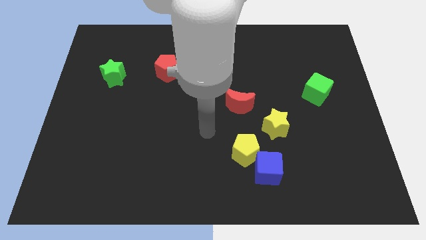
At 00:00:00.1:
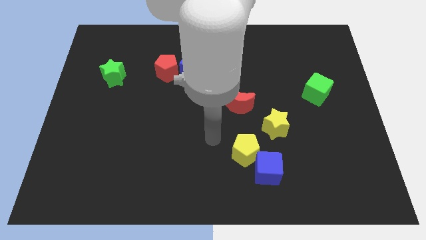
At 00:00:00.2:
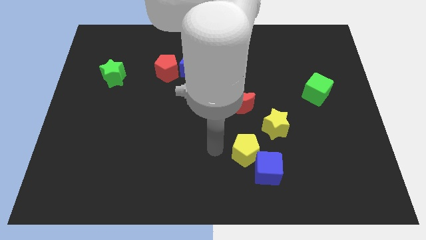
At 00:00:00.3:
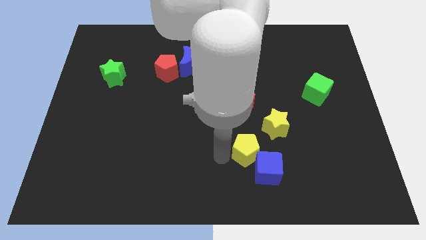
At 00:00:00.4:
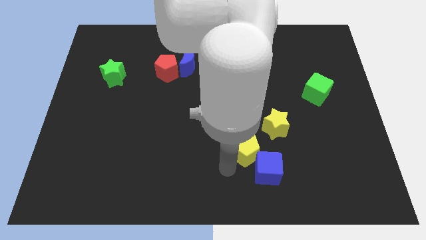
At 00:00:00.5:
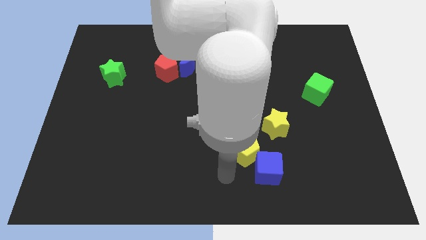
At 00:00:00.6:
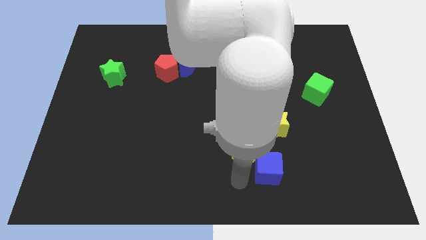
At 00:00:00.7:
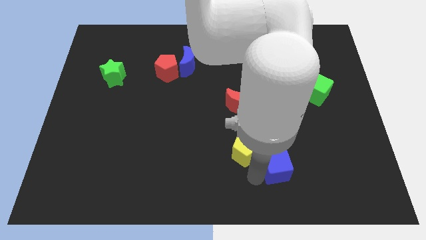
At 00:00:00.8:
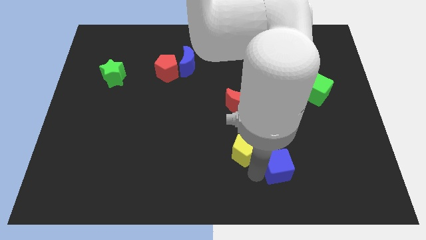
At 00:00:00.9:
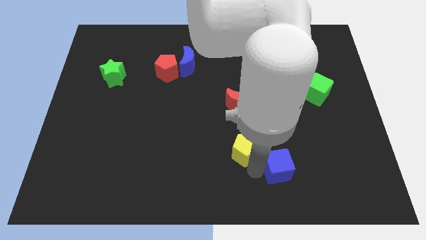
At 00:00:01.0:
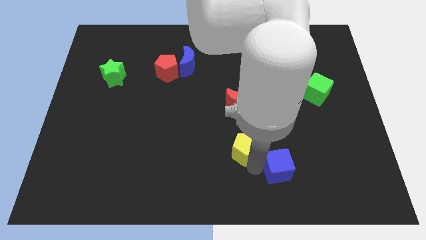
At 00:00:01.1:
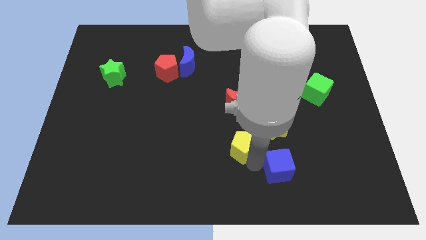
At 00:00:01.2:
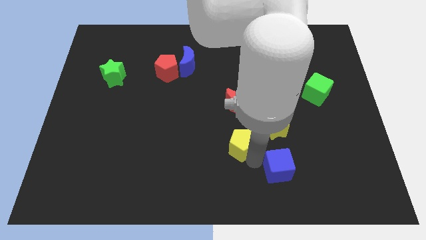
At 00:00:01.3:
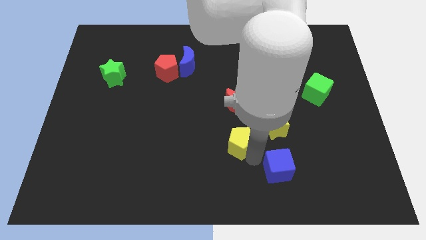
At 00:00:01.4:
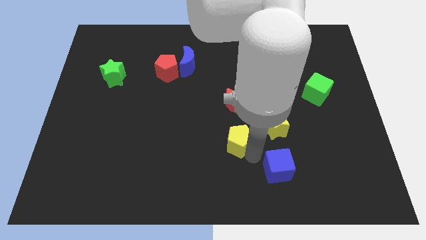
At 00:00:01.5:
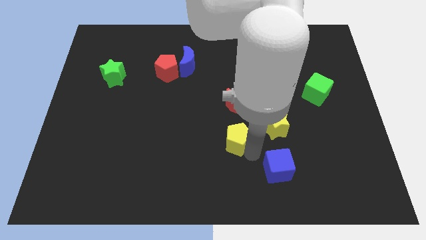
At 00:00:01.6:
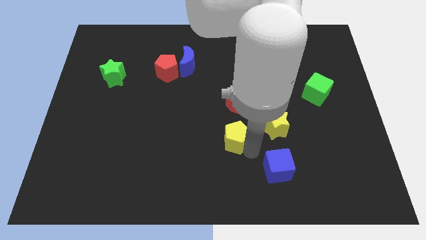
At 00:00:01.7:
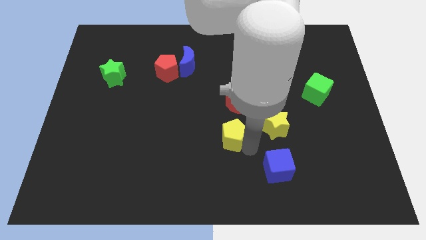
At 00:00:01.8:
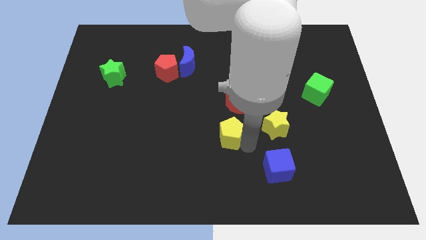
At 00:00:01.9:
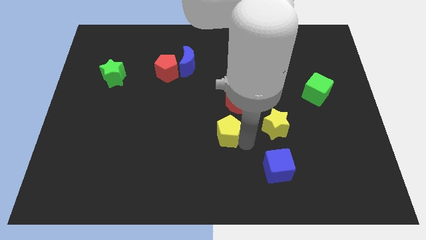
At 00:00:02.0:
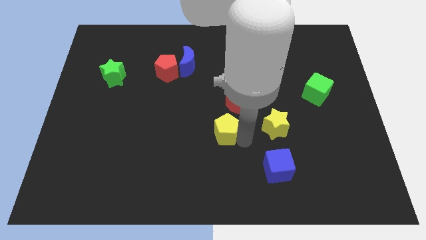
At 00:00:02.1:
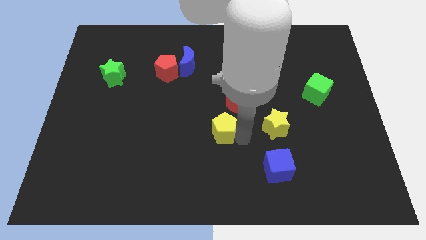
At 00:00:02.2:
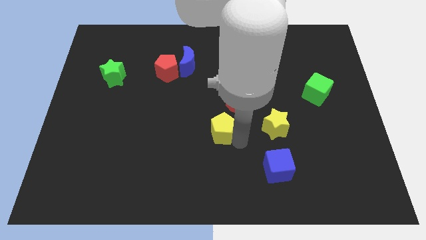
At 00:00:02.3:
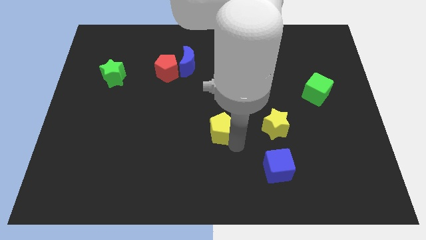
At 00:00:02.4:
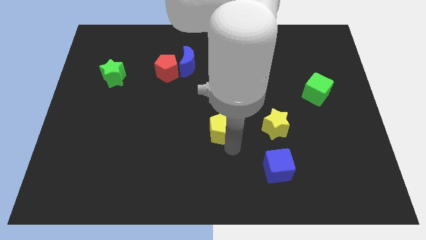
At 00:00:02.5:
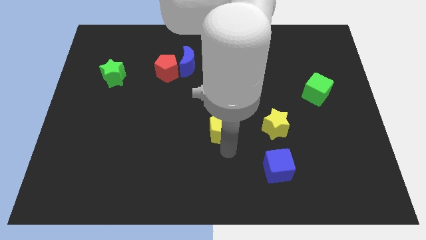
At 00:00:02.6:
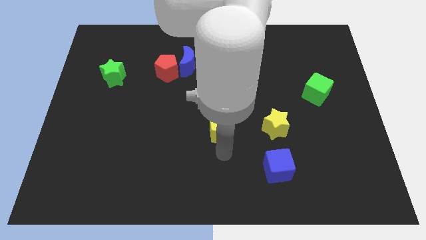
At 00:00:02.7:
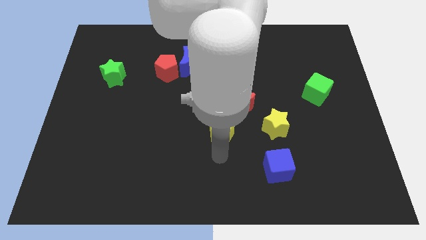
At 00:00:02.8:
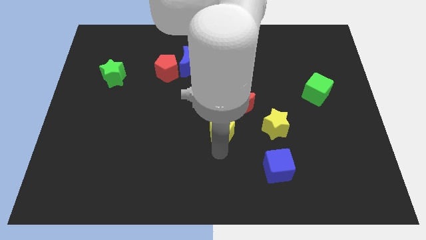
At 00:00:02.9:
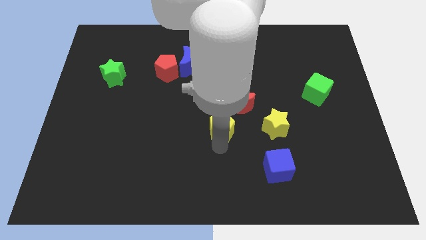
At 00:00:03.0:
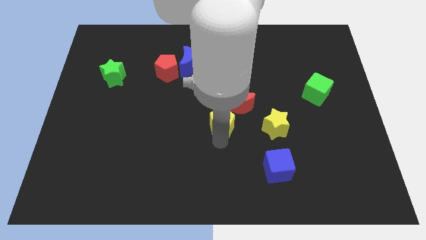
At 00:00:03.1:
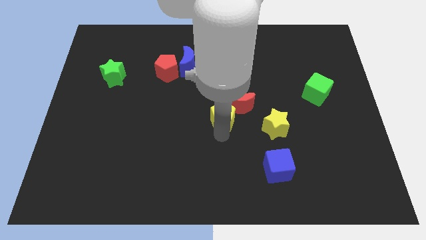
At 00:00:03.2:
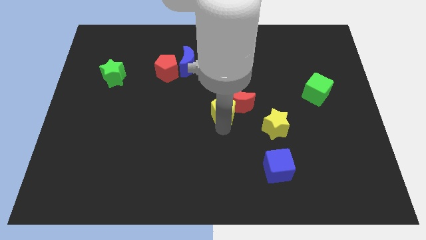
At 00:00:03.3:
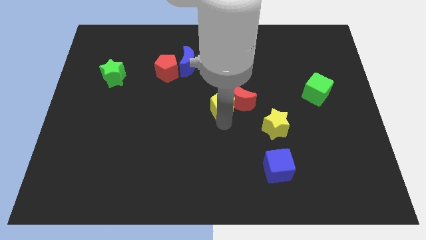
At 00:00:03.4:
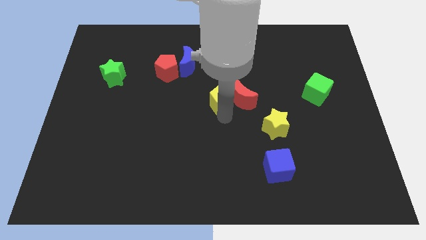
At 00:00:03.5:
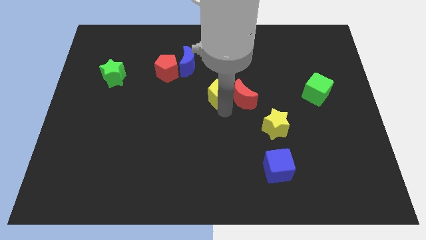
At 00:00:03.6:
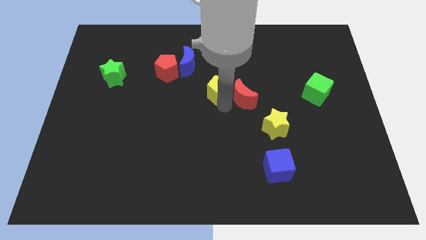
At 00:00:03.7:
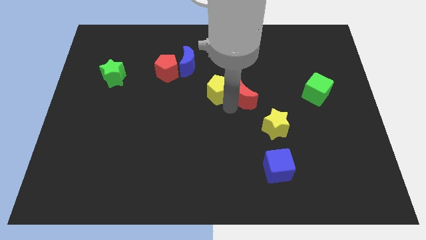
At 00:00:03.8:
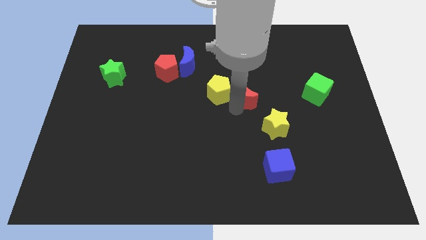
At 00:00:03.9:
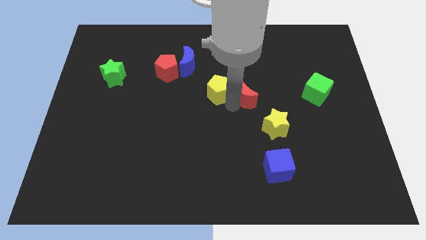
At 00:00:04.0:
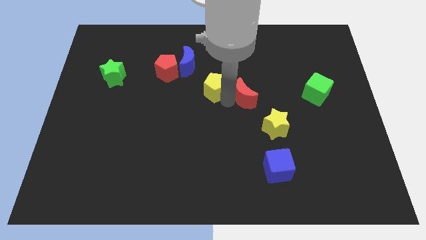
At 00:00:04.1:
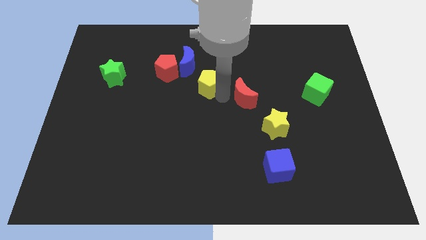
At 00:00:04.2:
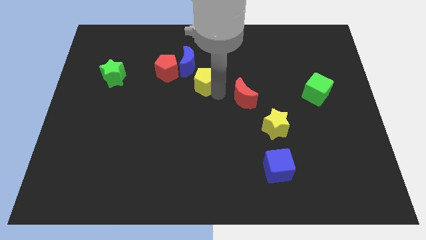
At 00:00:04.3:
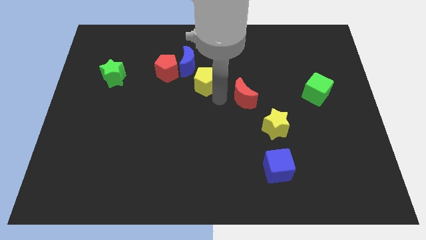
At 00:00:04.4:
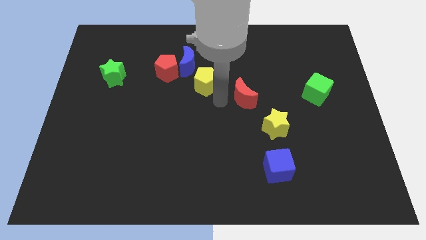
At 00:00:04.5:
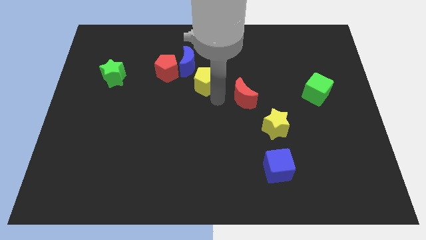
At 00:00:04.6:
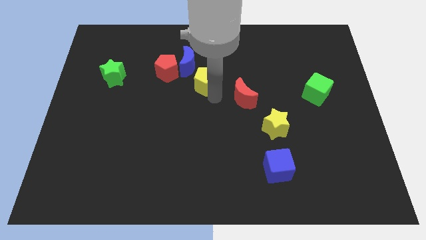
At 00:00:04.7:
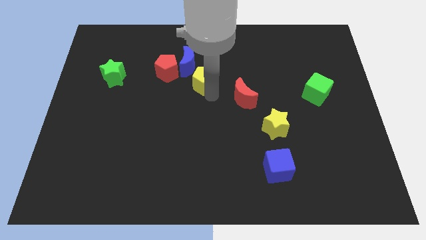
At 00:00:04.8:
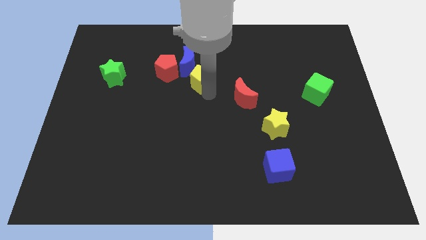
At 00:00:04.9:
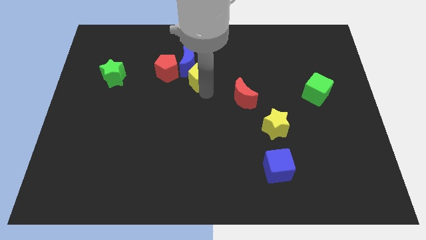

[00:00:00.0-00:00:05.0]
slide the yellow pentagon close to the blue moon

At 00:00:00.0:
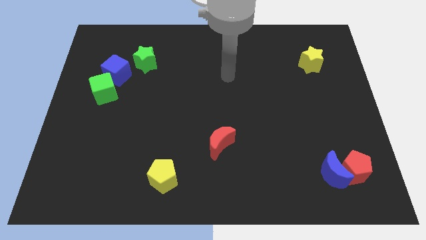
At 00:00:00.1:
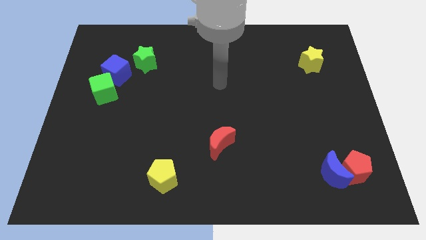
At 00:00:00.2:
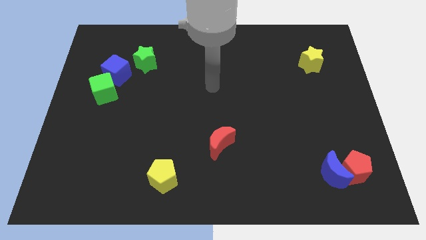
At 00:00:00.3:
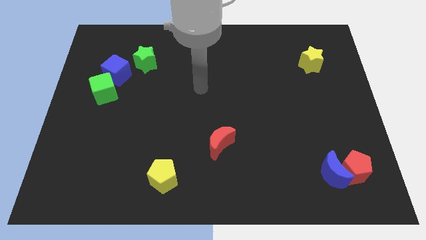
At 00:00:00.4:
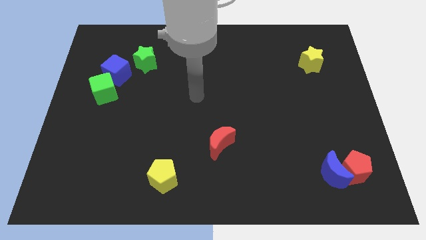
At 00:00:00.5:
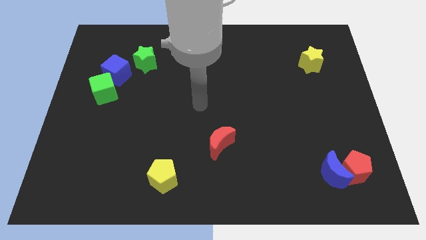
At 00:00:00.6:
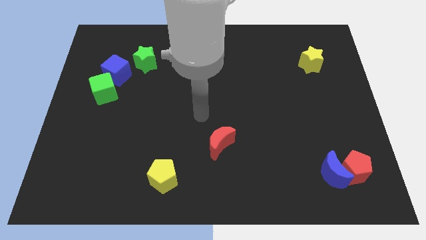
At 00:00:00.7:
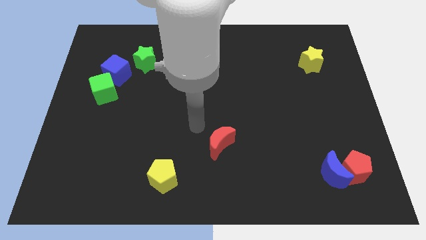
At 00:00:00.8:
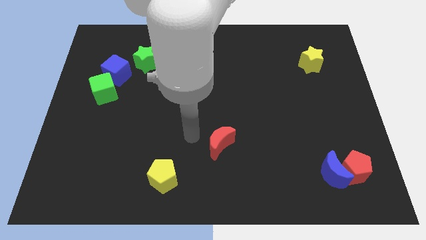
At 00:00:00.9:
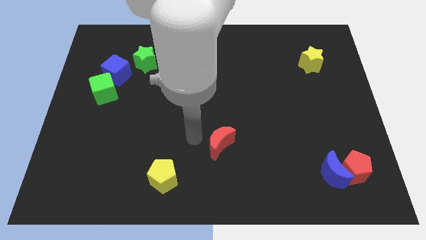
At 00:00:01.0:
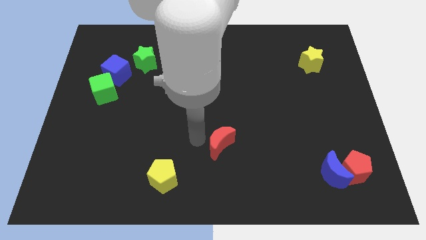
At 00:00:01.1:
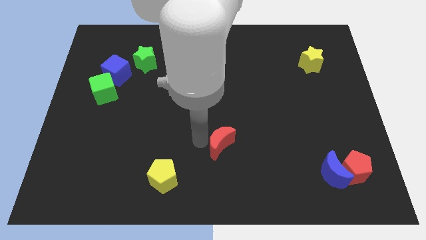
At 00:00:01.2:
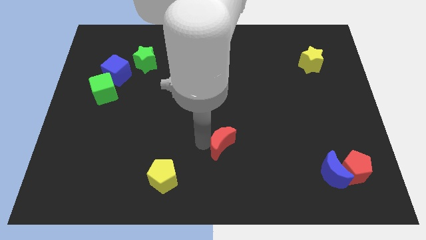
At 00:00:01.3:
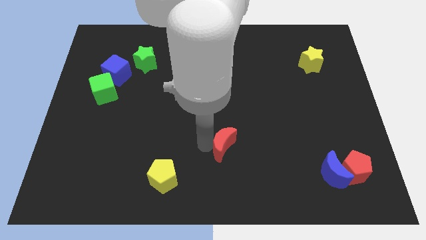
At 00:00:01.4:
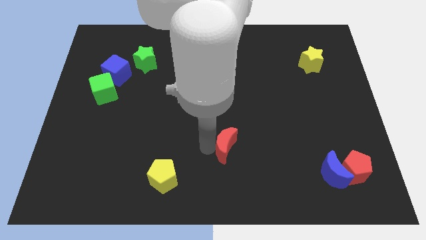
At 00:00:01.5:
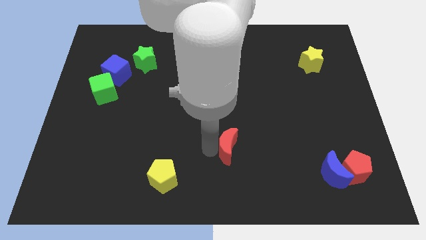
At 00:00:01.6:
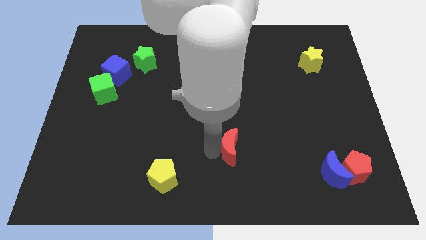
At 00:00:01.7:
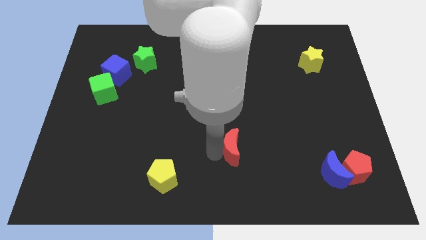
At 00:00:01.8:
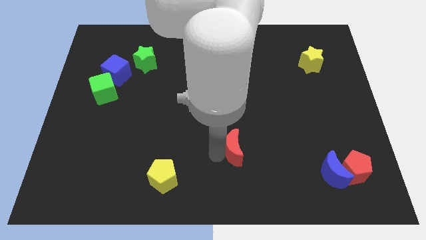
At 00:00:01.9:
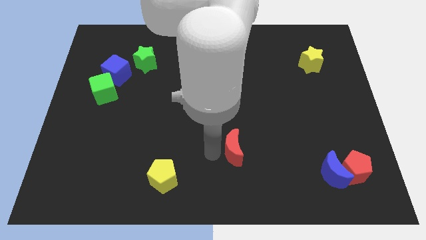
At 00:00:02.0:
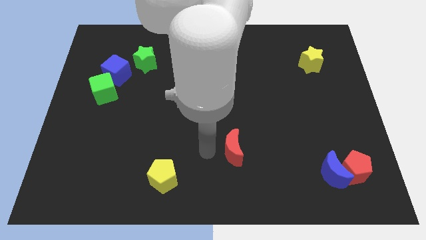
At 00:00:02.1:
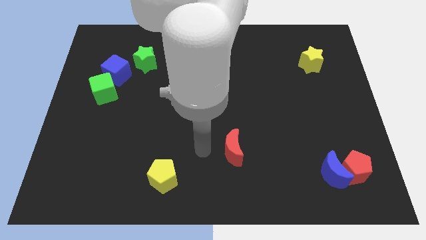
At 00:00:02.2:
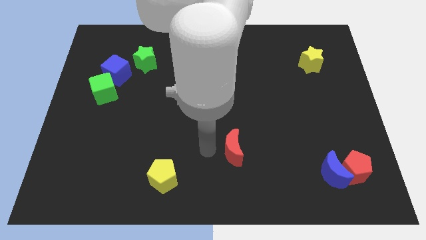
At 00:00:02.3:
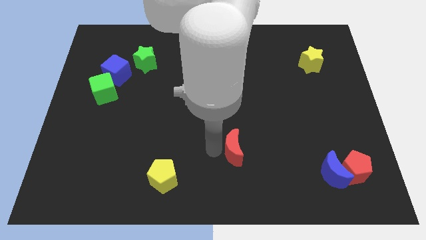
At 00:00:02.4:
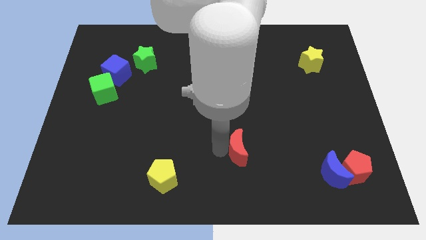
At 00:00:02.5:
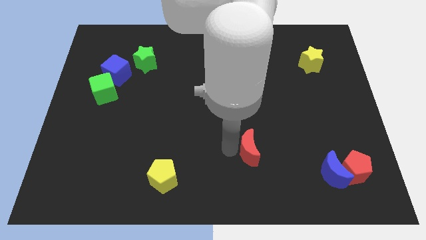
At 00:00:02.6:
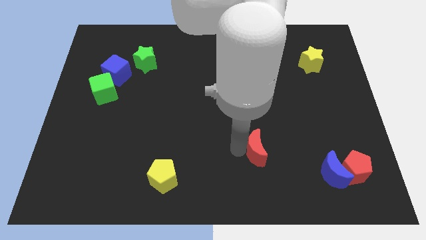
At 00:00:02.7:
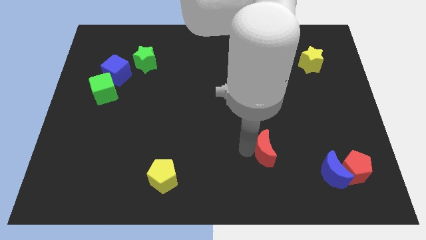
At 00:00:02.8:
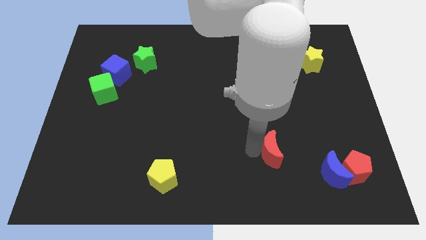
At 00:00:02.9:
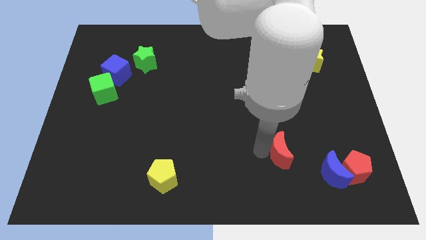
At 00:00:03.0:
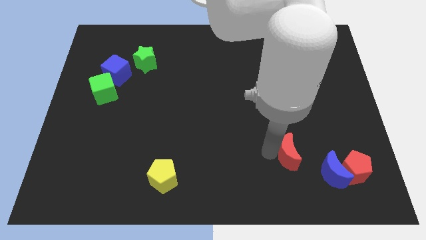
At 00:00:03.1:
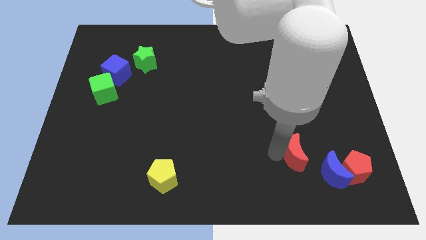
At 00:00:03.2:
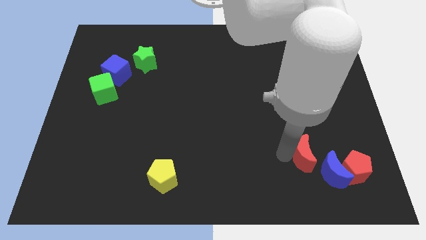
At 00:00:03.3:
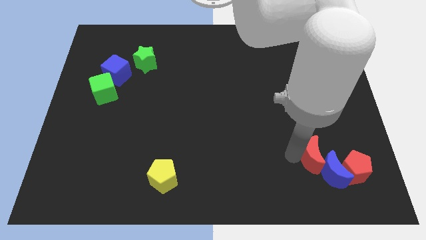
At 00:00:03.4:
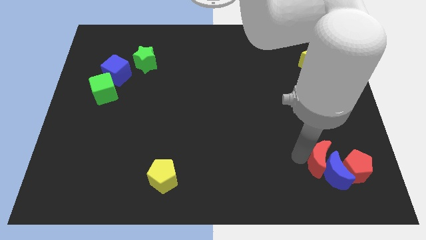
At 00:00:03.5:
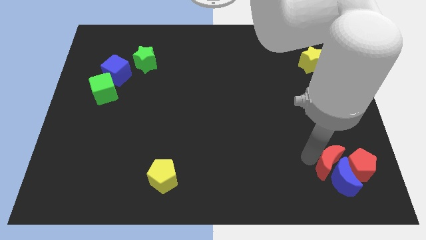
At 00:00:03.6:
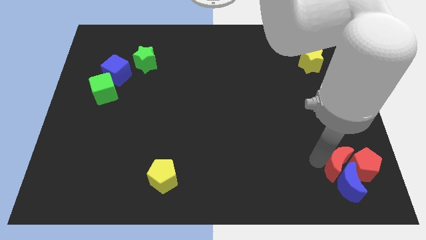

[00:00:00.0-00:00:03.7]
push the red moon next to the red pentagon
